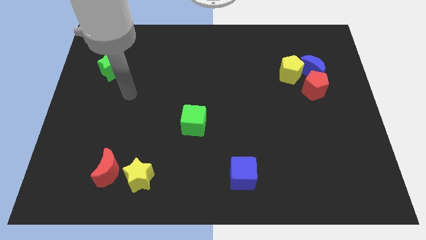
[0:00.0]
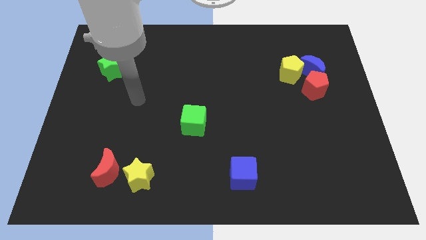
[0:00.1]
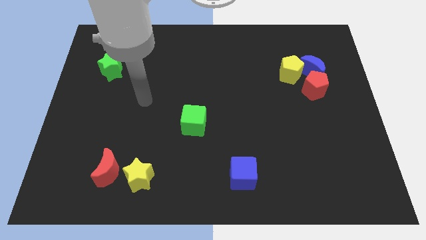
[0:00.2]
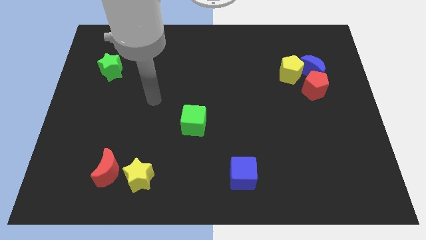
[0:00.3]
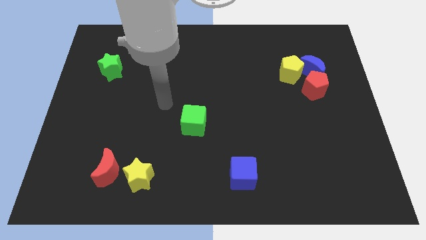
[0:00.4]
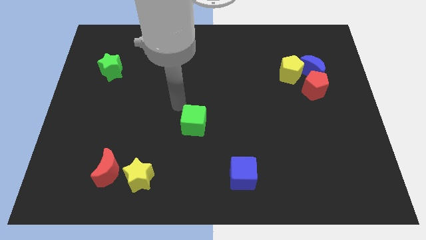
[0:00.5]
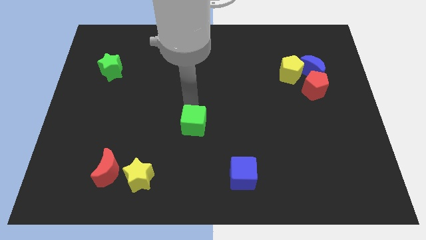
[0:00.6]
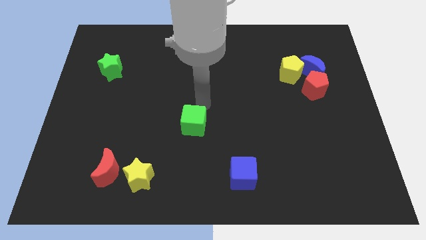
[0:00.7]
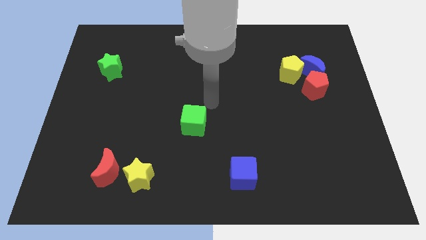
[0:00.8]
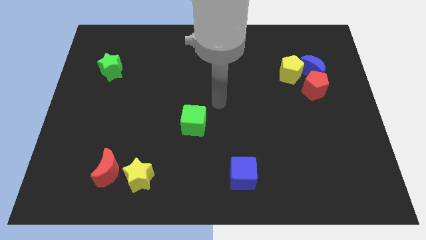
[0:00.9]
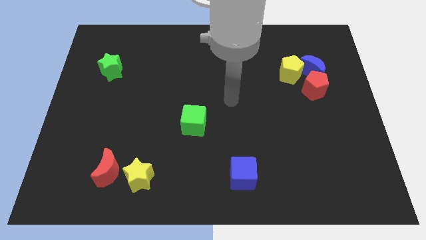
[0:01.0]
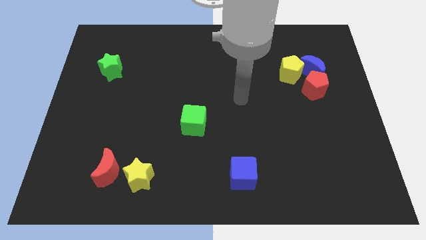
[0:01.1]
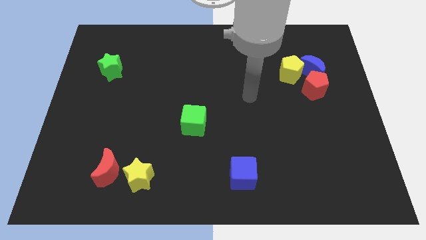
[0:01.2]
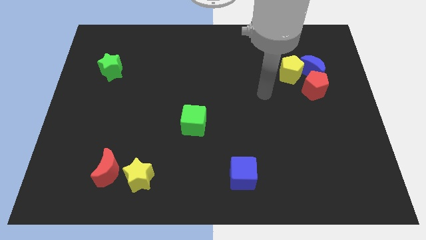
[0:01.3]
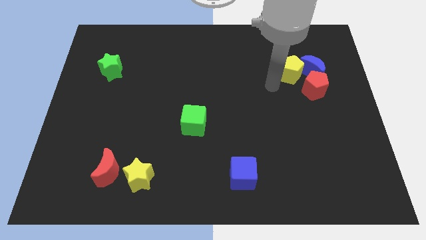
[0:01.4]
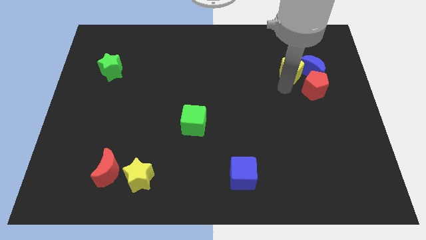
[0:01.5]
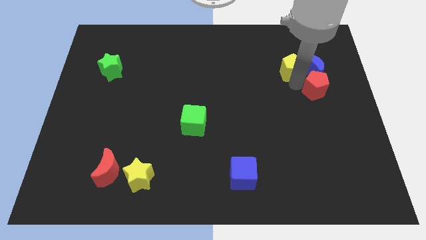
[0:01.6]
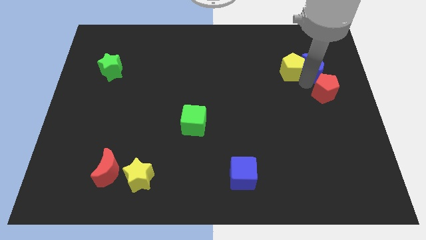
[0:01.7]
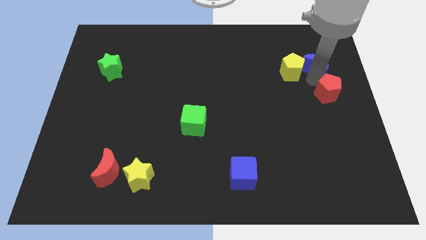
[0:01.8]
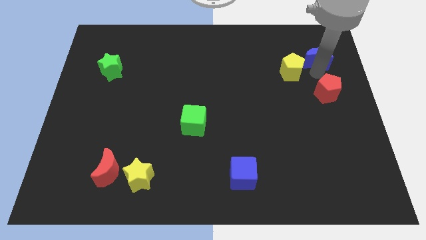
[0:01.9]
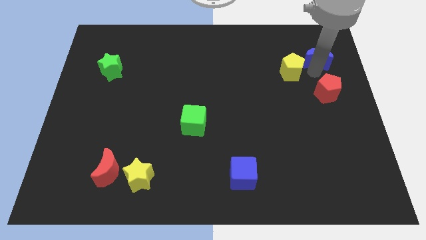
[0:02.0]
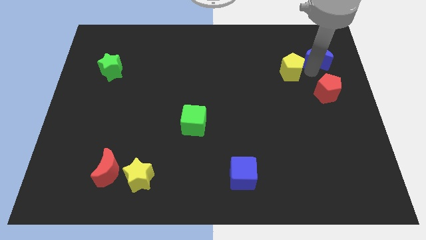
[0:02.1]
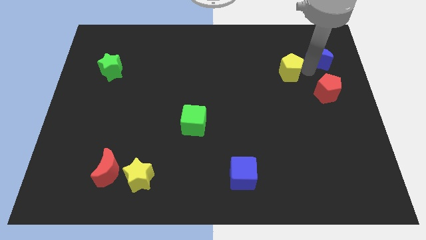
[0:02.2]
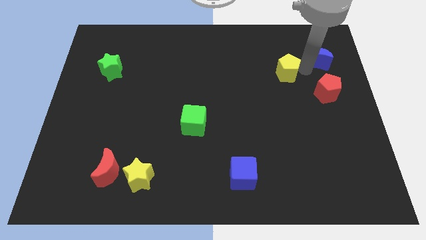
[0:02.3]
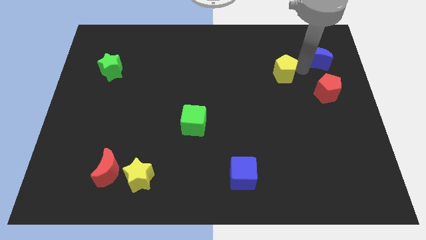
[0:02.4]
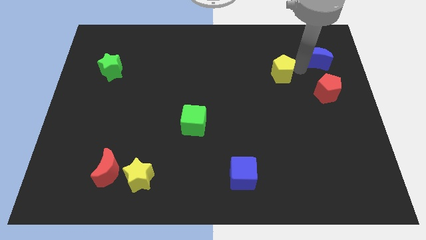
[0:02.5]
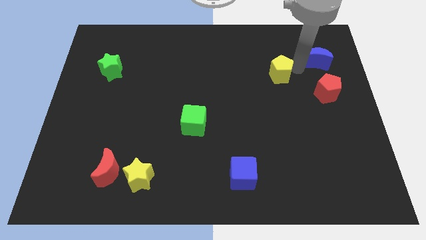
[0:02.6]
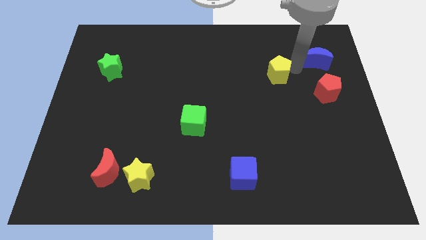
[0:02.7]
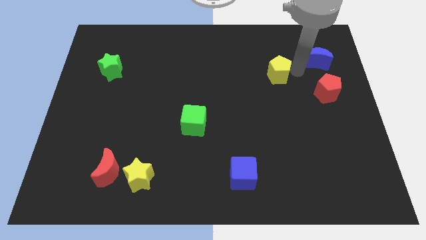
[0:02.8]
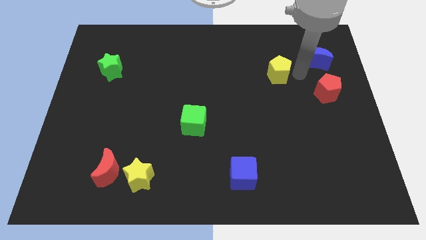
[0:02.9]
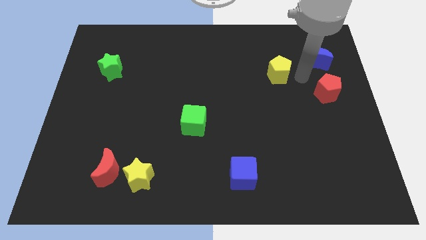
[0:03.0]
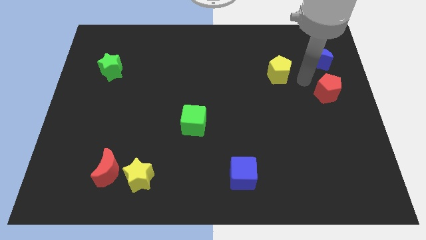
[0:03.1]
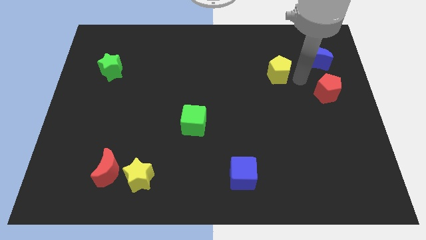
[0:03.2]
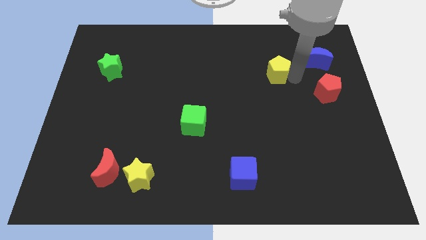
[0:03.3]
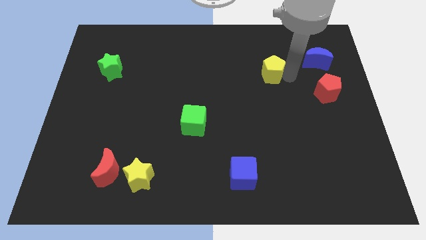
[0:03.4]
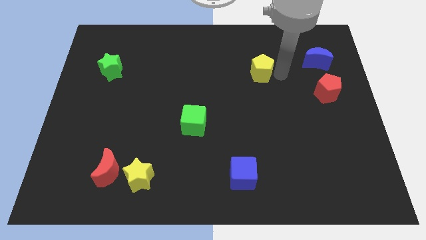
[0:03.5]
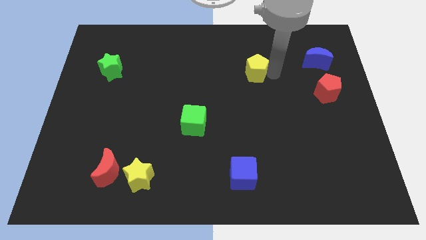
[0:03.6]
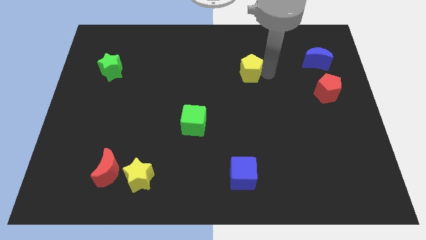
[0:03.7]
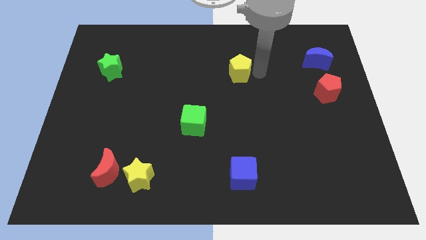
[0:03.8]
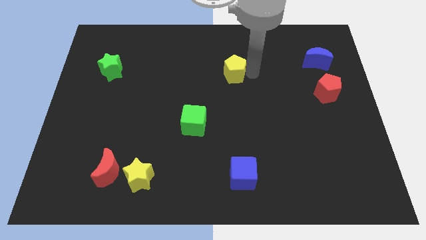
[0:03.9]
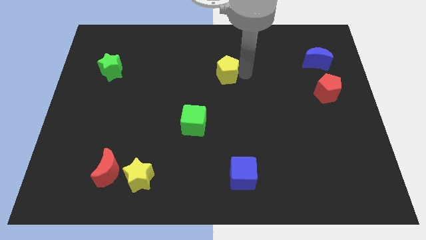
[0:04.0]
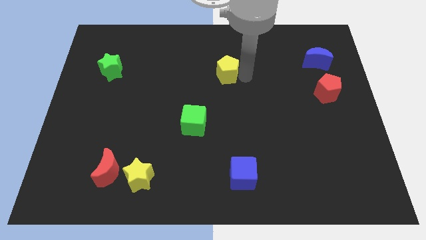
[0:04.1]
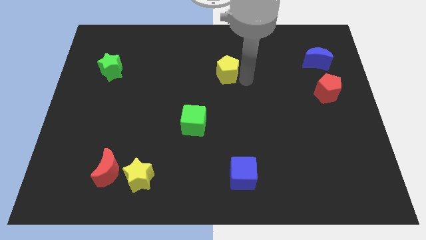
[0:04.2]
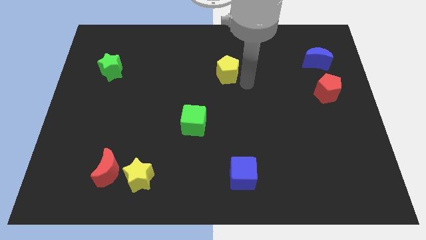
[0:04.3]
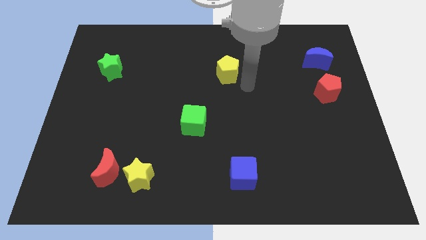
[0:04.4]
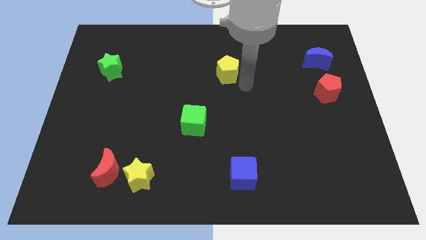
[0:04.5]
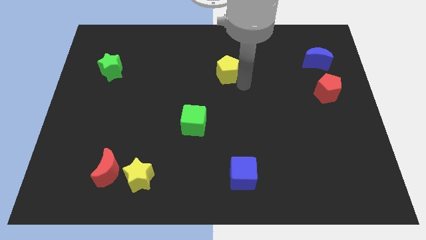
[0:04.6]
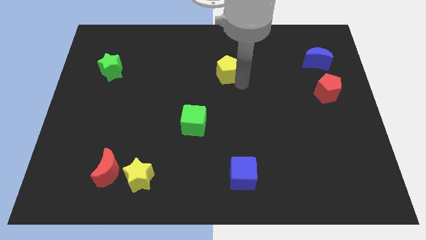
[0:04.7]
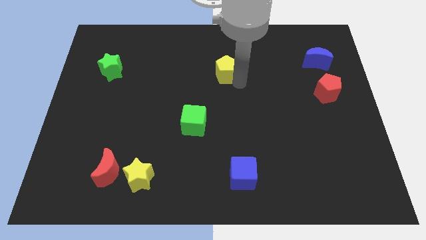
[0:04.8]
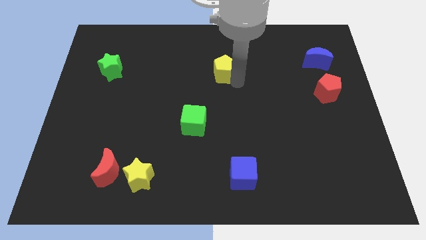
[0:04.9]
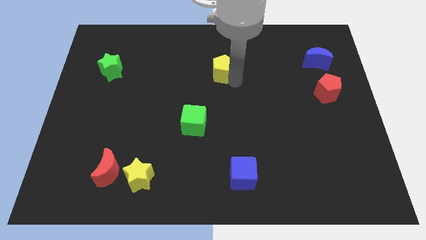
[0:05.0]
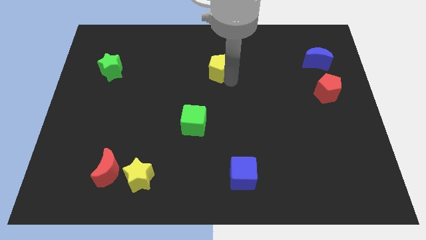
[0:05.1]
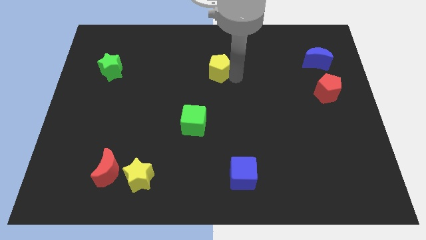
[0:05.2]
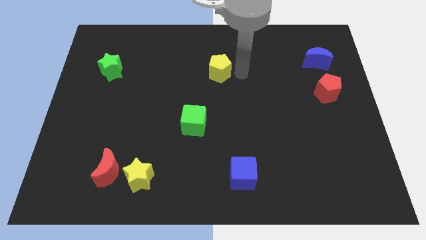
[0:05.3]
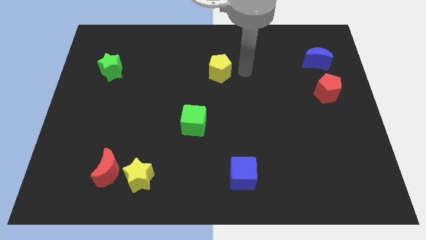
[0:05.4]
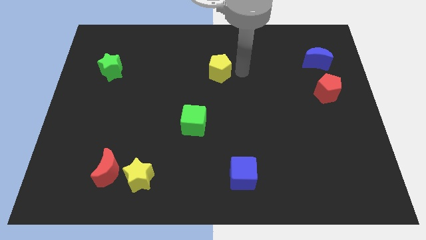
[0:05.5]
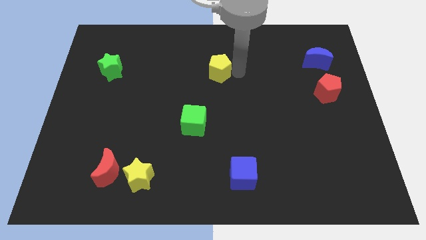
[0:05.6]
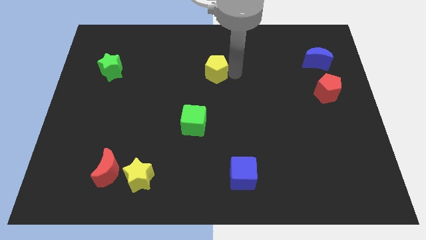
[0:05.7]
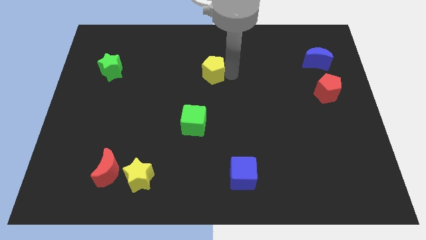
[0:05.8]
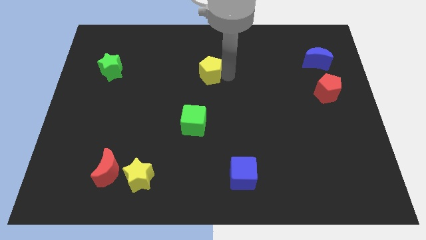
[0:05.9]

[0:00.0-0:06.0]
push the yellow pentagon to the left

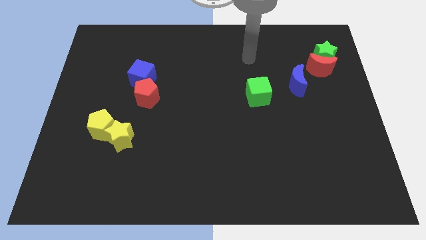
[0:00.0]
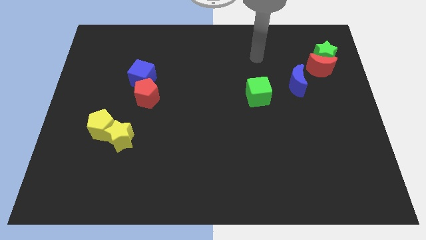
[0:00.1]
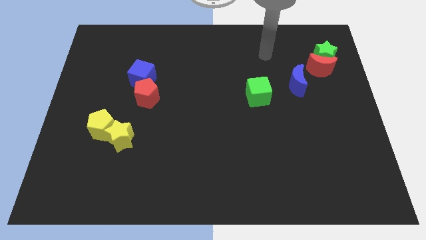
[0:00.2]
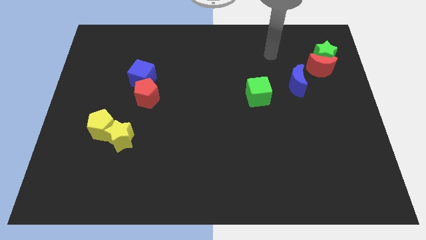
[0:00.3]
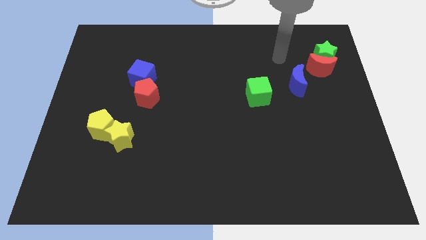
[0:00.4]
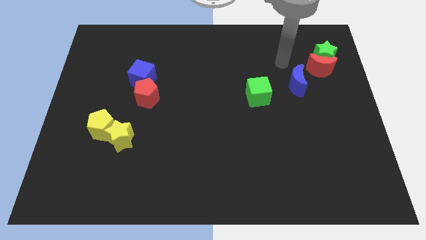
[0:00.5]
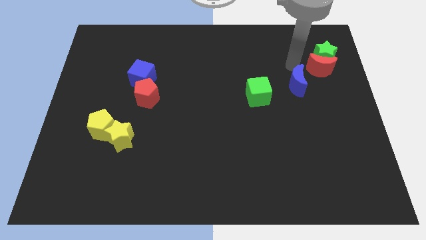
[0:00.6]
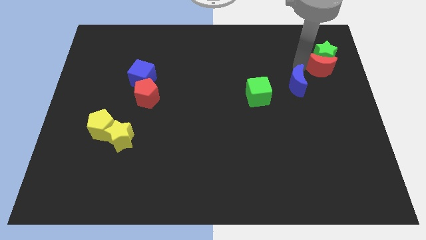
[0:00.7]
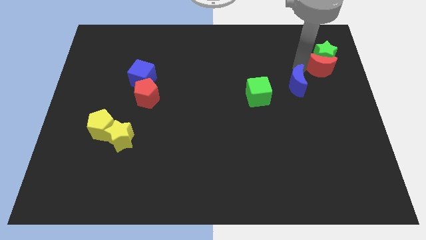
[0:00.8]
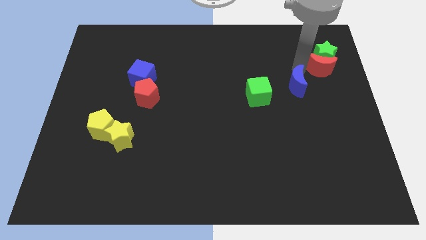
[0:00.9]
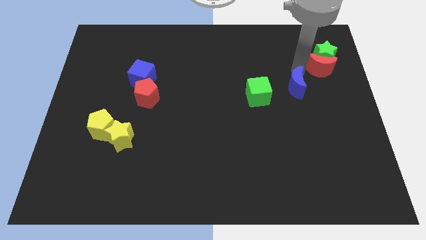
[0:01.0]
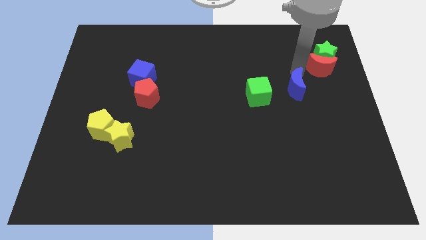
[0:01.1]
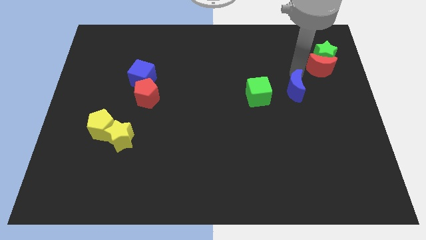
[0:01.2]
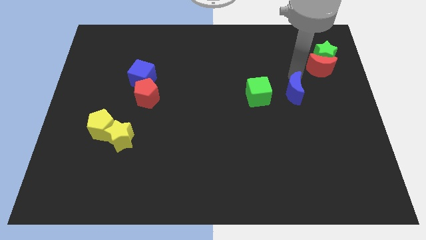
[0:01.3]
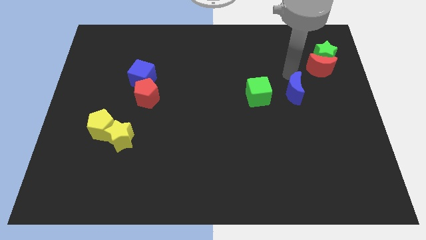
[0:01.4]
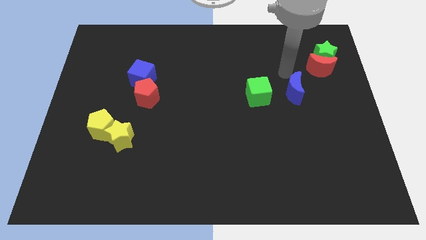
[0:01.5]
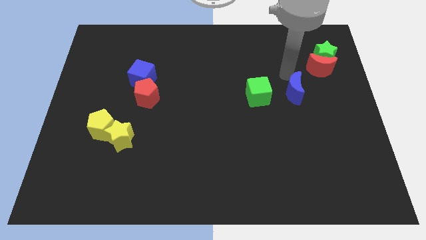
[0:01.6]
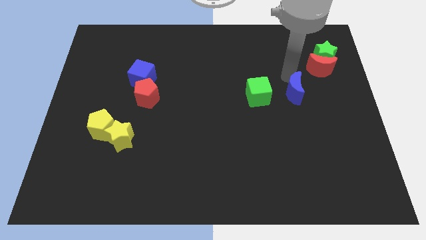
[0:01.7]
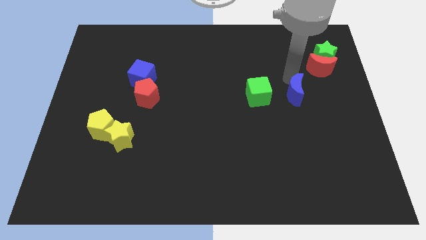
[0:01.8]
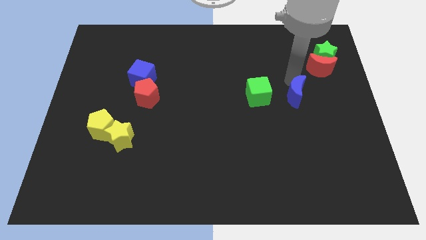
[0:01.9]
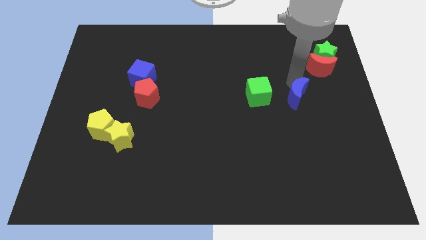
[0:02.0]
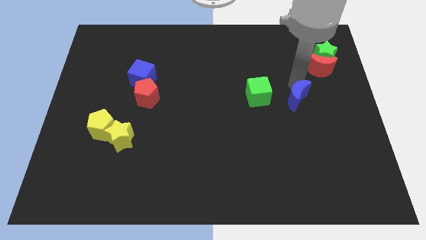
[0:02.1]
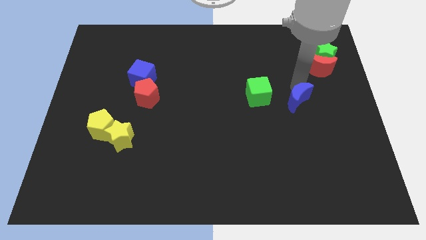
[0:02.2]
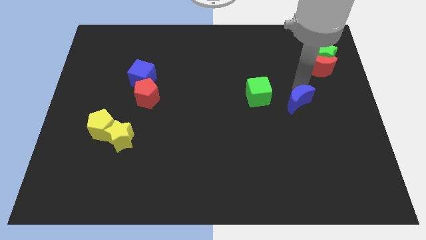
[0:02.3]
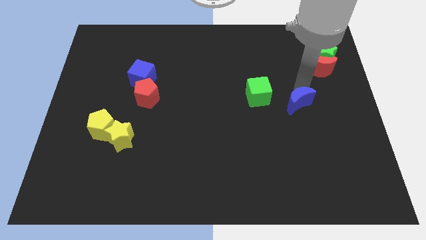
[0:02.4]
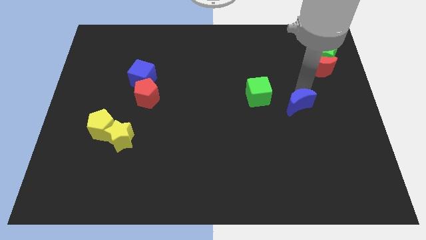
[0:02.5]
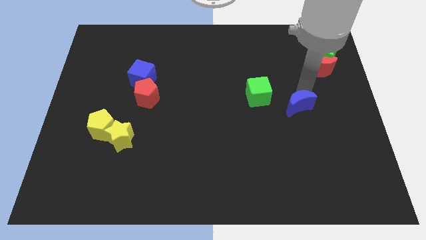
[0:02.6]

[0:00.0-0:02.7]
move the blue moon slightly downwards
